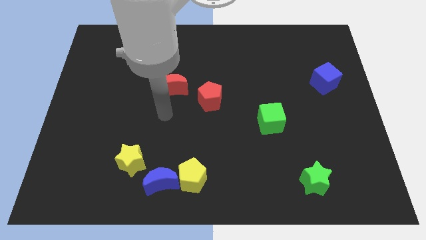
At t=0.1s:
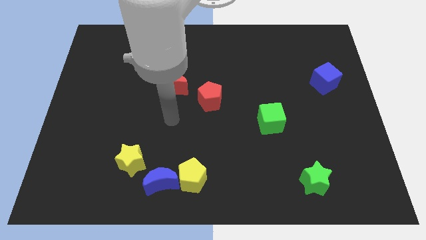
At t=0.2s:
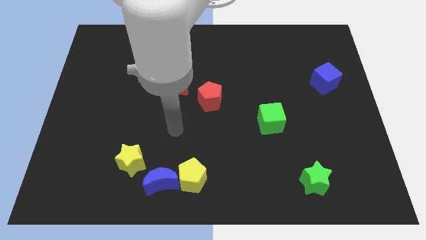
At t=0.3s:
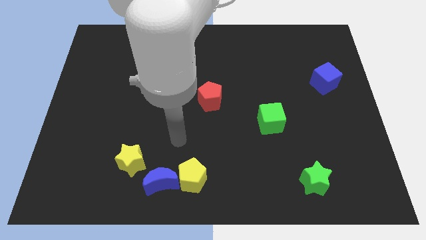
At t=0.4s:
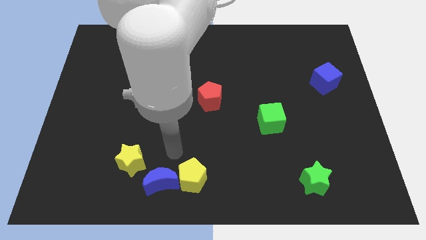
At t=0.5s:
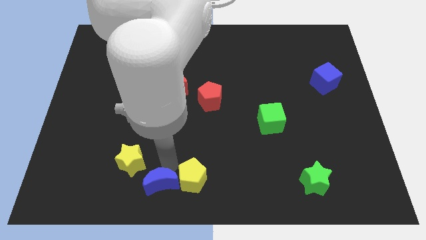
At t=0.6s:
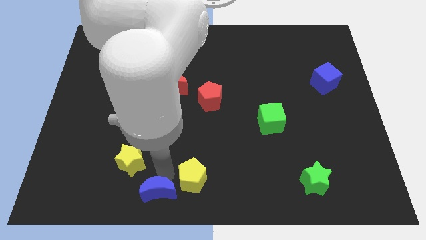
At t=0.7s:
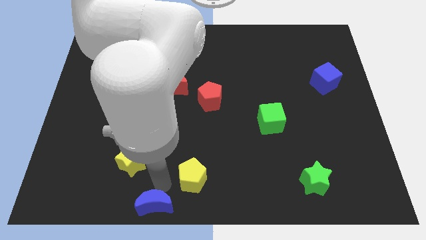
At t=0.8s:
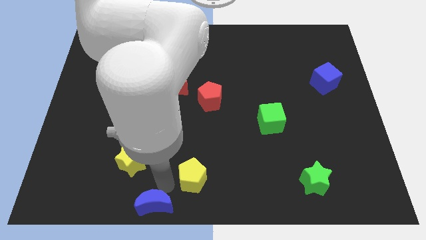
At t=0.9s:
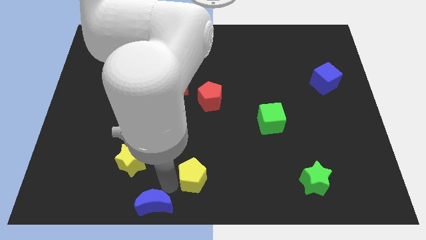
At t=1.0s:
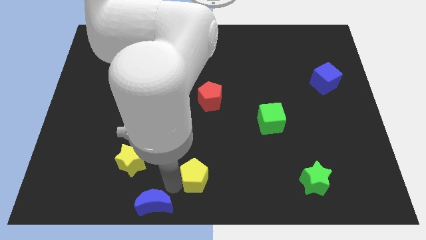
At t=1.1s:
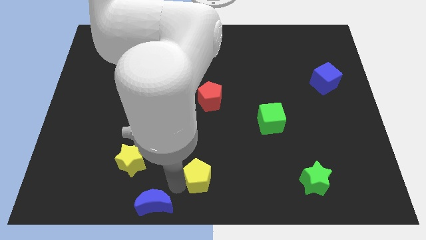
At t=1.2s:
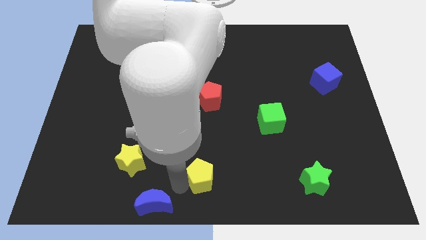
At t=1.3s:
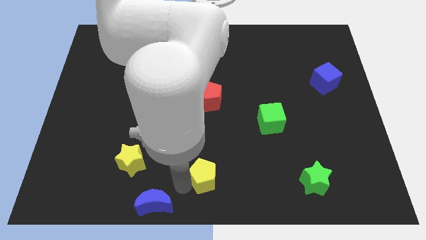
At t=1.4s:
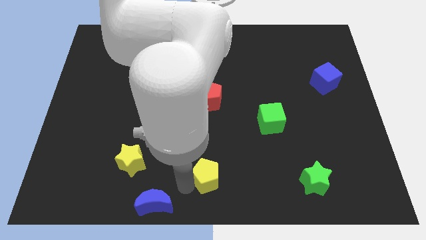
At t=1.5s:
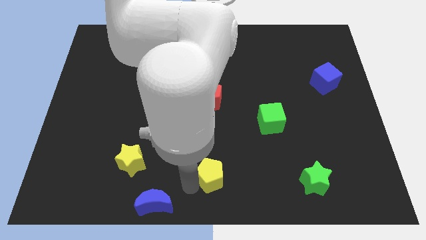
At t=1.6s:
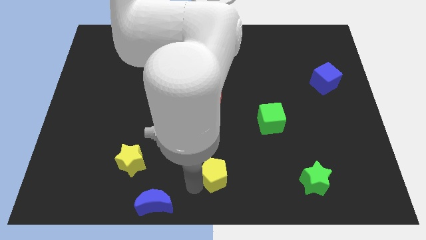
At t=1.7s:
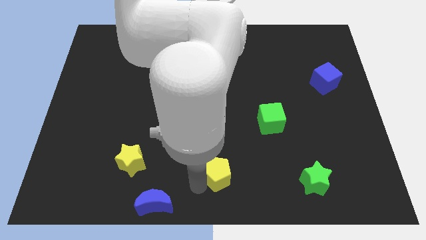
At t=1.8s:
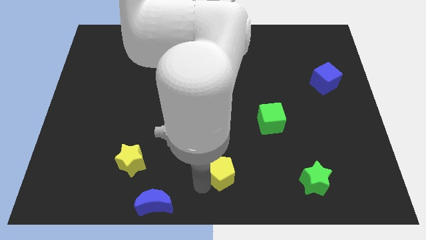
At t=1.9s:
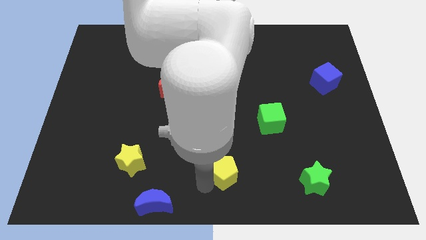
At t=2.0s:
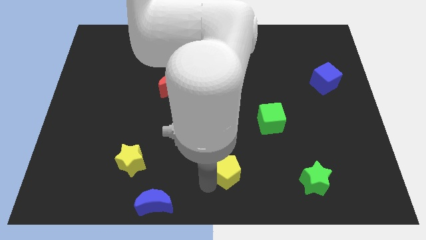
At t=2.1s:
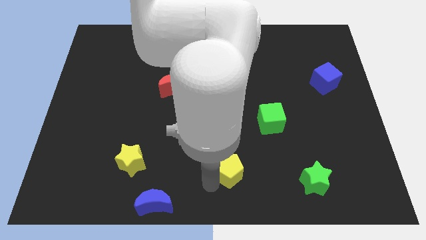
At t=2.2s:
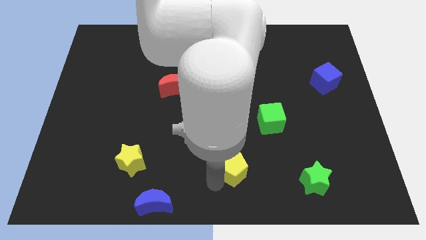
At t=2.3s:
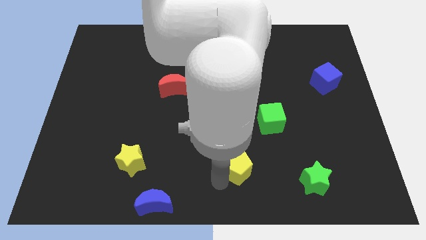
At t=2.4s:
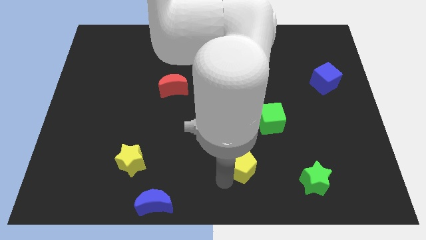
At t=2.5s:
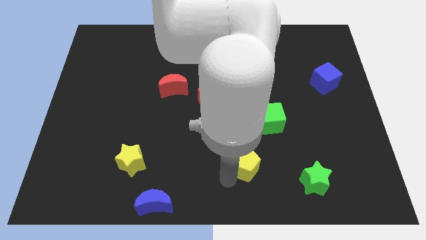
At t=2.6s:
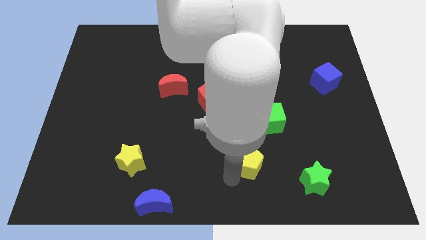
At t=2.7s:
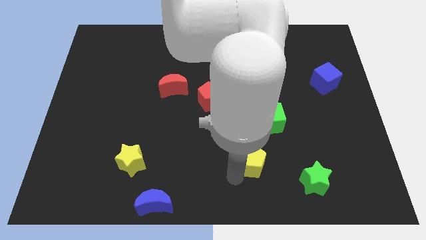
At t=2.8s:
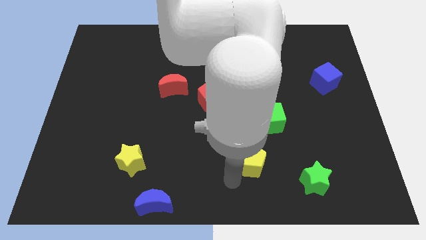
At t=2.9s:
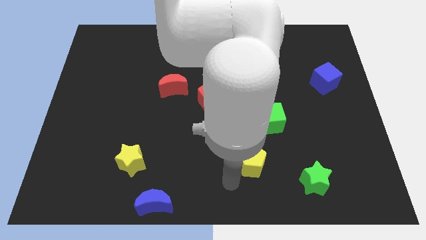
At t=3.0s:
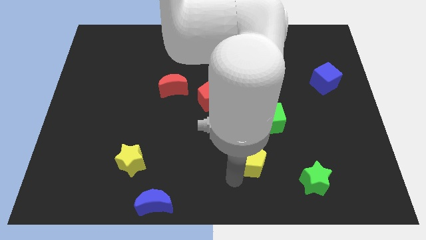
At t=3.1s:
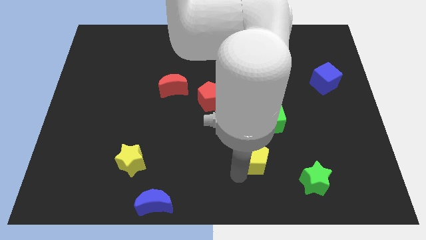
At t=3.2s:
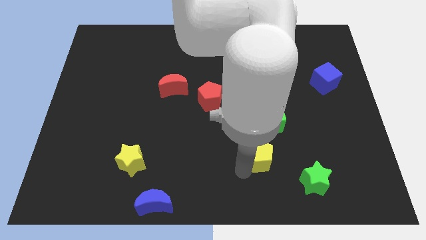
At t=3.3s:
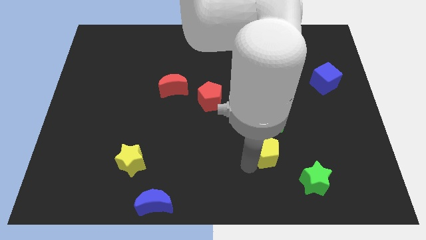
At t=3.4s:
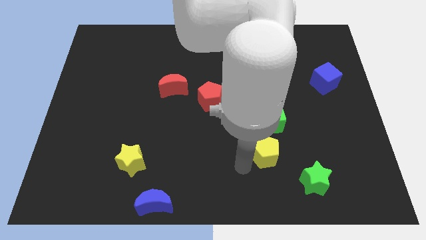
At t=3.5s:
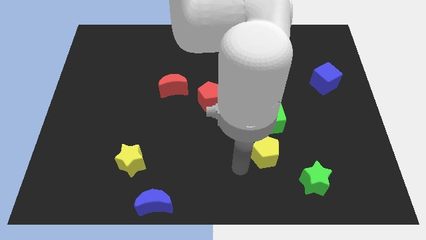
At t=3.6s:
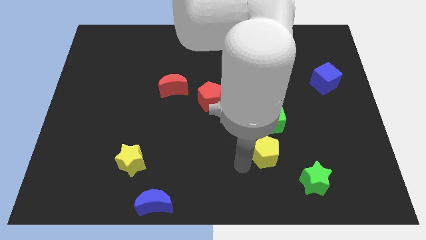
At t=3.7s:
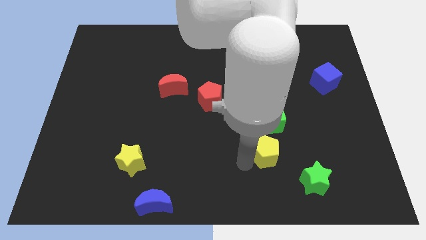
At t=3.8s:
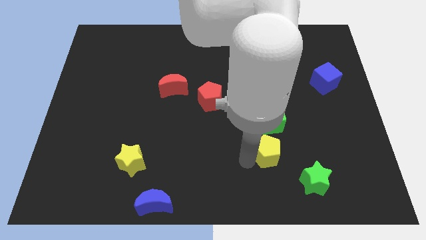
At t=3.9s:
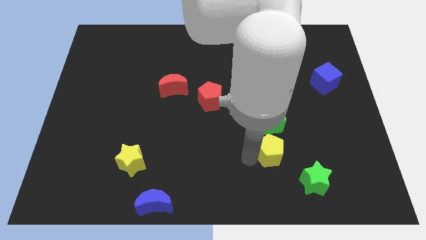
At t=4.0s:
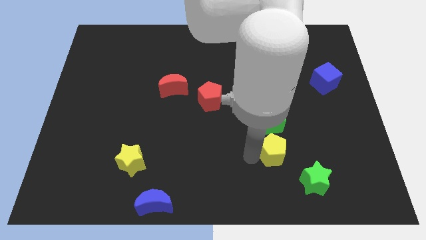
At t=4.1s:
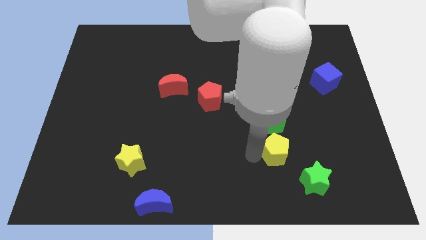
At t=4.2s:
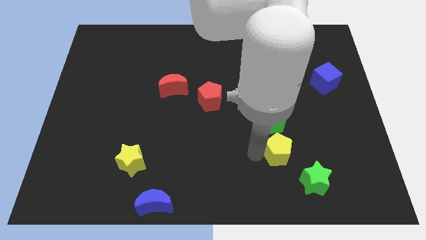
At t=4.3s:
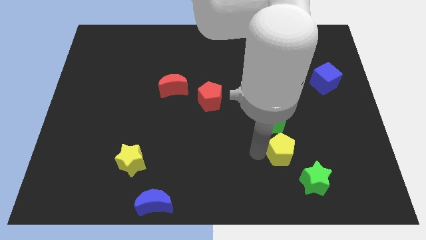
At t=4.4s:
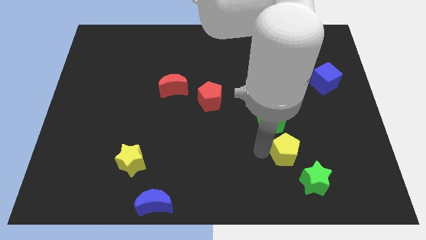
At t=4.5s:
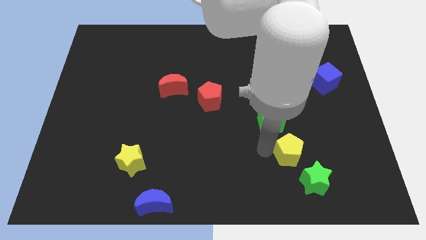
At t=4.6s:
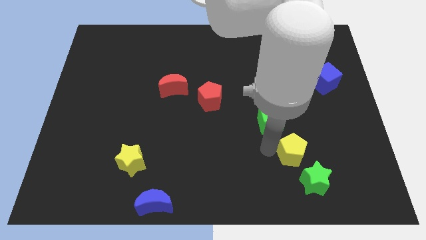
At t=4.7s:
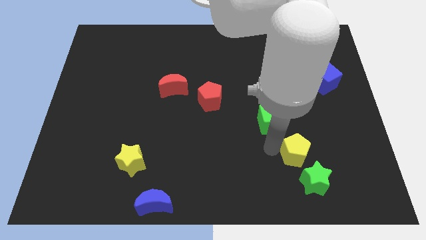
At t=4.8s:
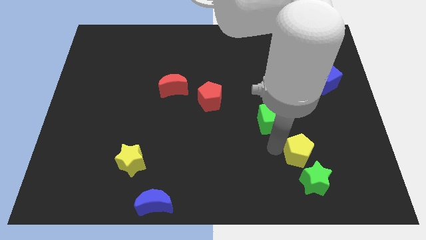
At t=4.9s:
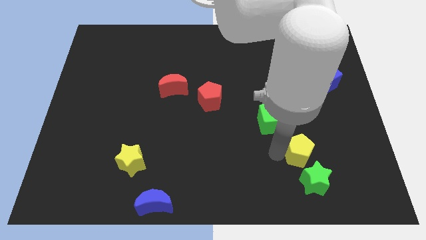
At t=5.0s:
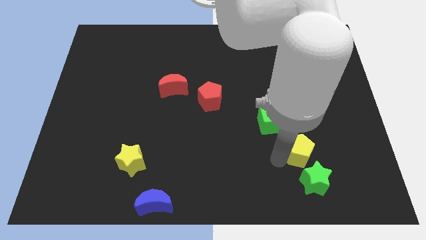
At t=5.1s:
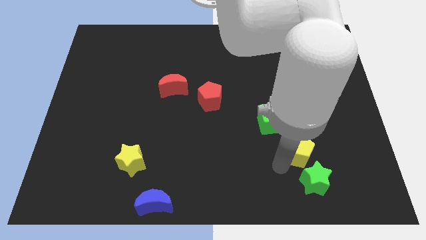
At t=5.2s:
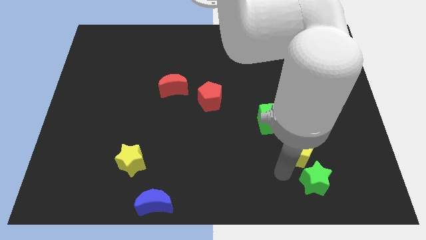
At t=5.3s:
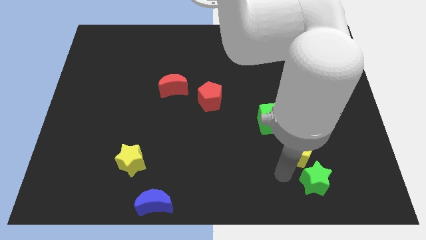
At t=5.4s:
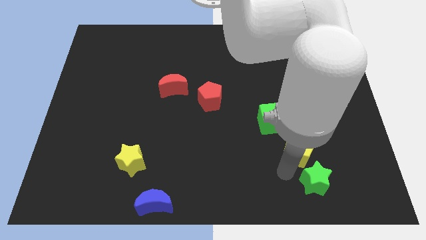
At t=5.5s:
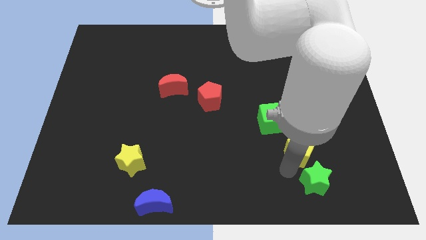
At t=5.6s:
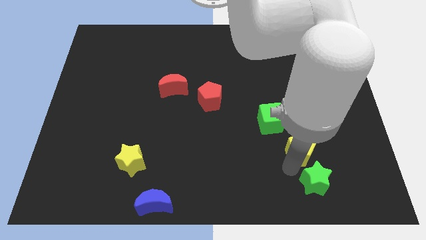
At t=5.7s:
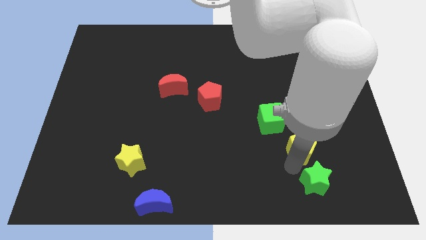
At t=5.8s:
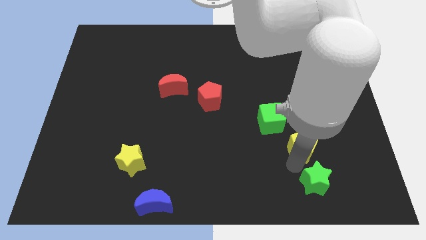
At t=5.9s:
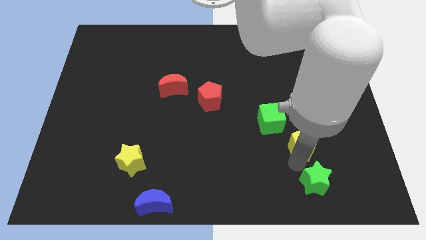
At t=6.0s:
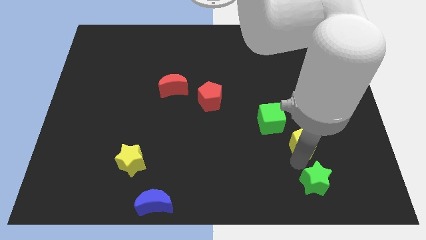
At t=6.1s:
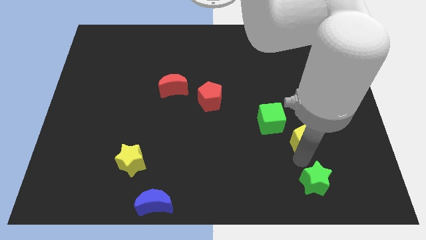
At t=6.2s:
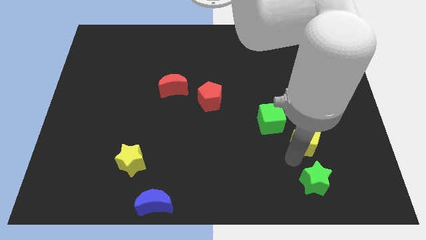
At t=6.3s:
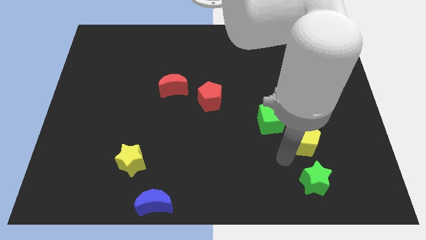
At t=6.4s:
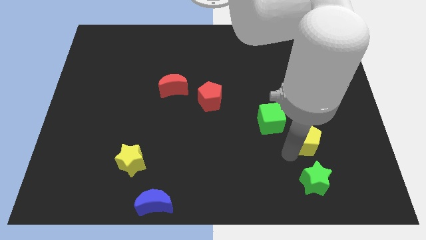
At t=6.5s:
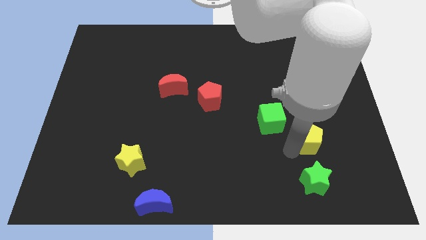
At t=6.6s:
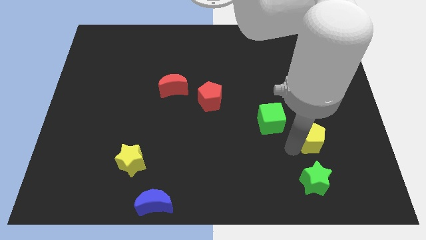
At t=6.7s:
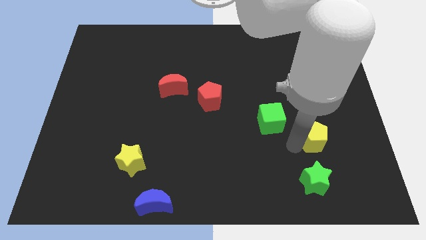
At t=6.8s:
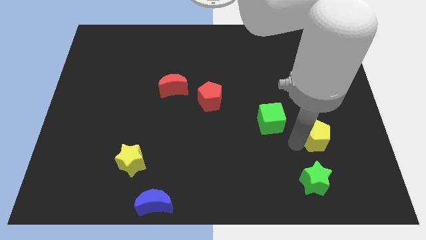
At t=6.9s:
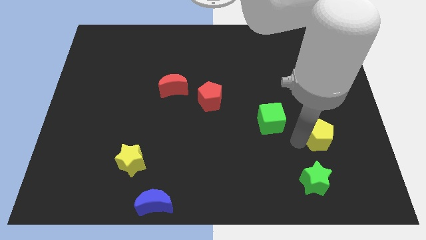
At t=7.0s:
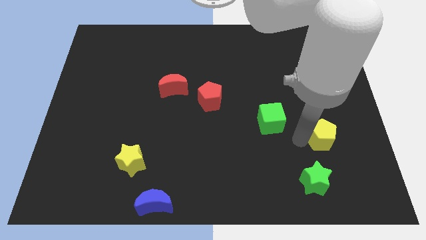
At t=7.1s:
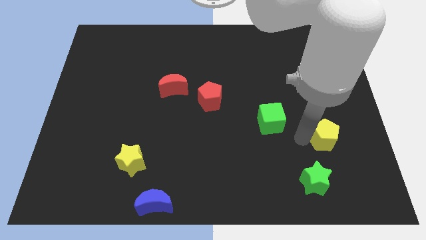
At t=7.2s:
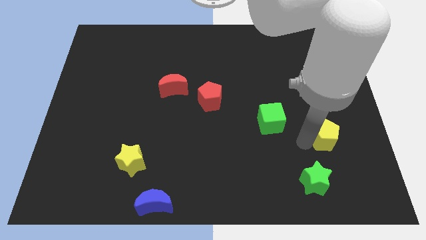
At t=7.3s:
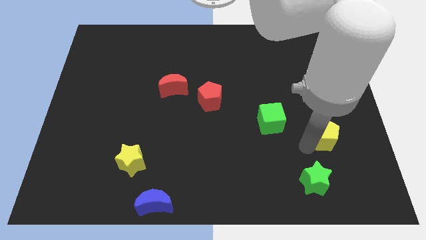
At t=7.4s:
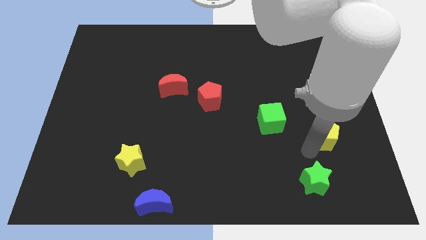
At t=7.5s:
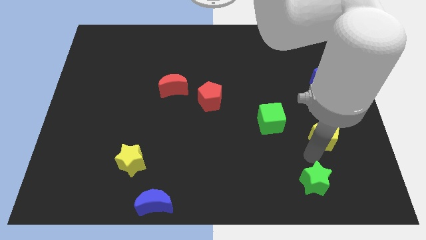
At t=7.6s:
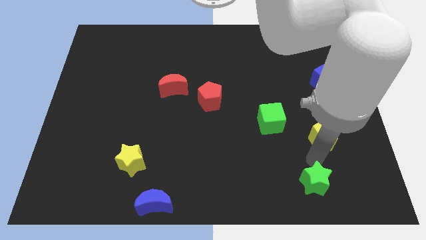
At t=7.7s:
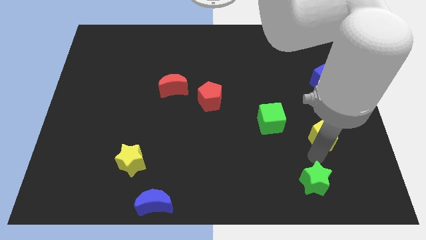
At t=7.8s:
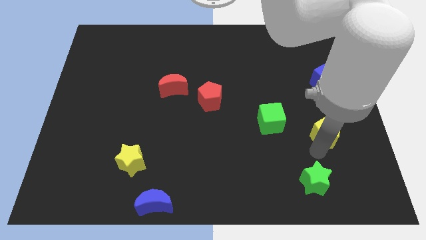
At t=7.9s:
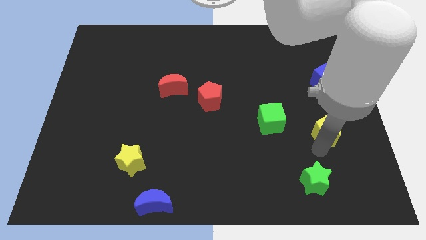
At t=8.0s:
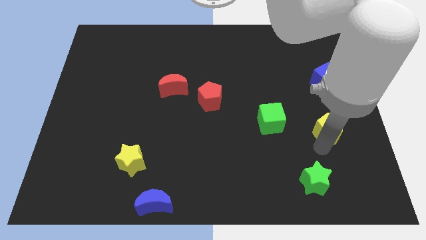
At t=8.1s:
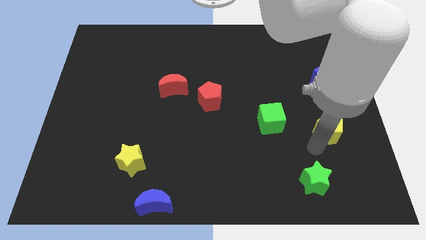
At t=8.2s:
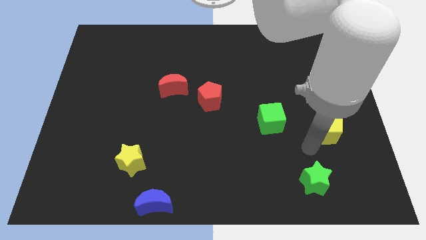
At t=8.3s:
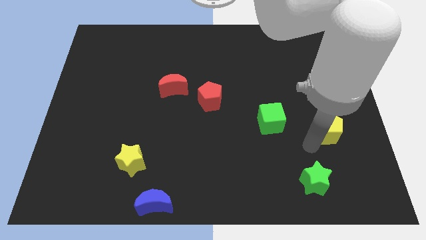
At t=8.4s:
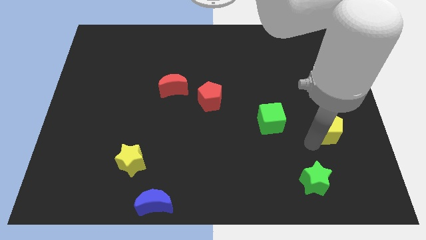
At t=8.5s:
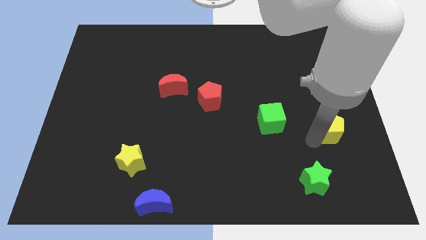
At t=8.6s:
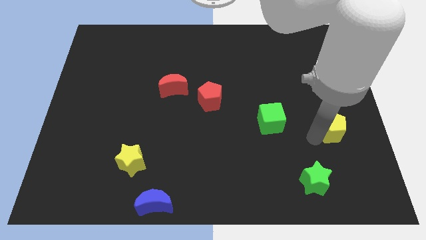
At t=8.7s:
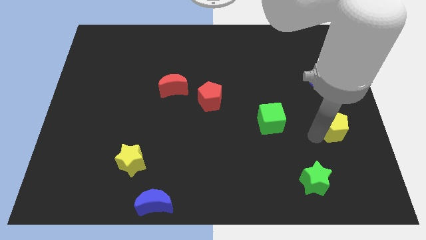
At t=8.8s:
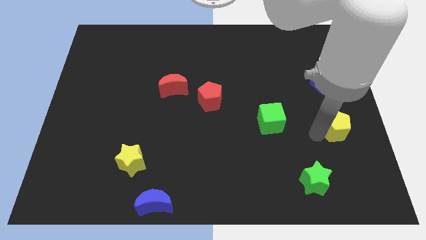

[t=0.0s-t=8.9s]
put the yellow pentagon to the right side
